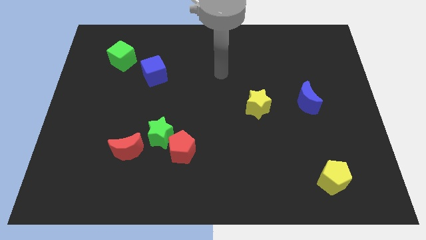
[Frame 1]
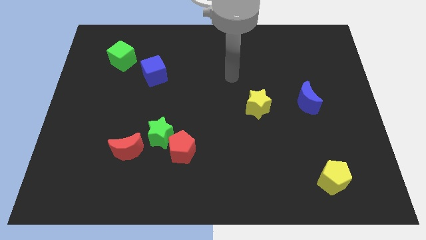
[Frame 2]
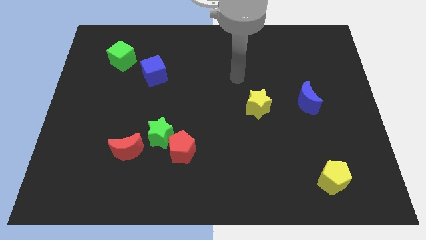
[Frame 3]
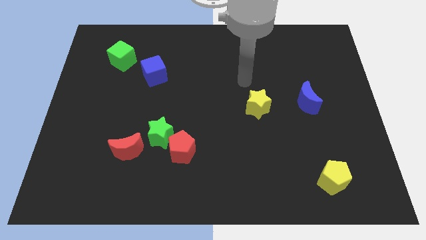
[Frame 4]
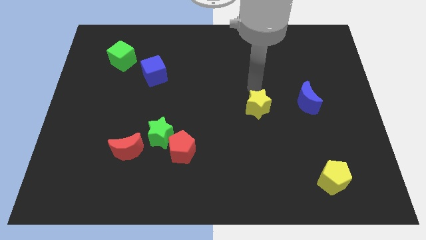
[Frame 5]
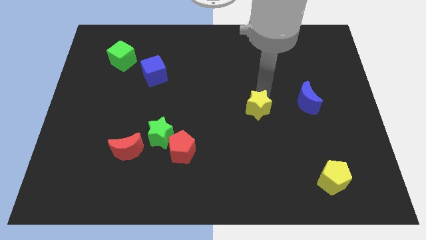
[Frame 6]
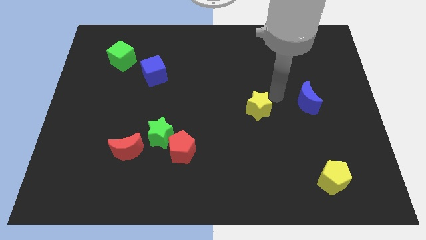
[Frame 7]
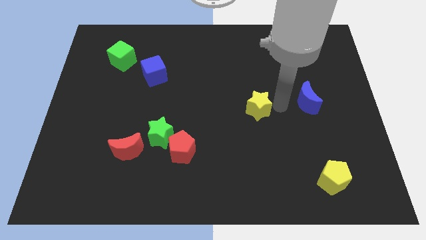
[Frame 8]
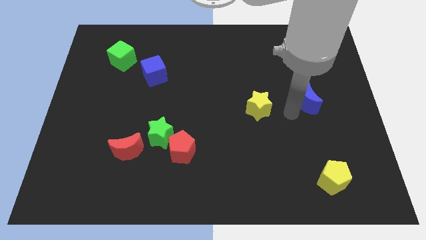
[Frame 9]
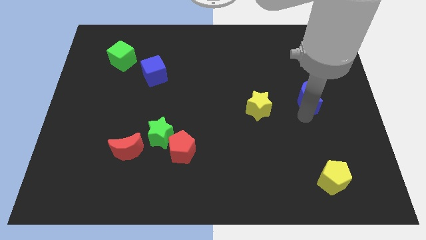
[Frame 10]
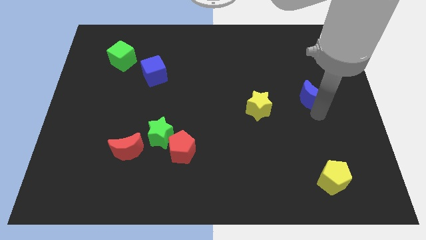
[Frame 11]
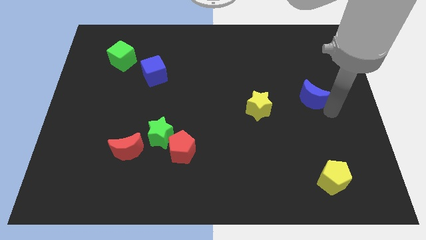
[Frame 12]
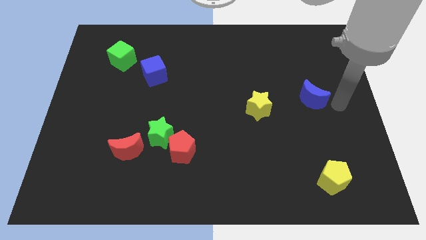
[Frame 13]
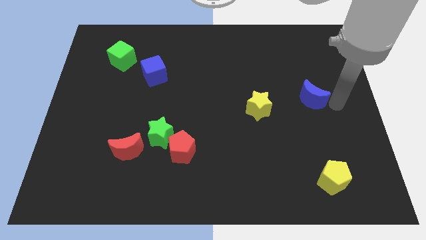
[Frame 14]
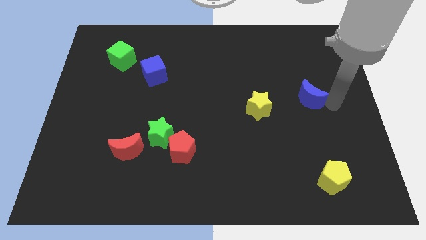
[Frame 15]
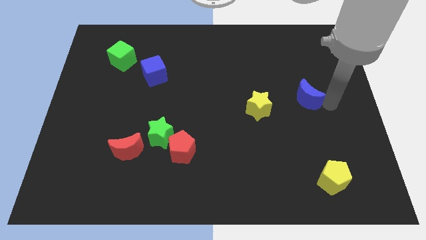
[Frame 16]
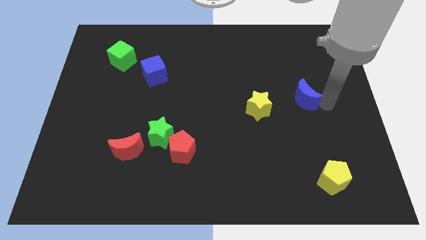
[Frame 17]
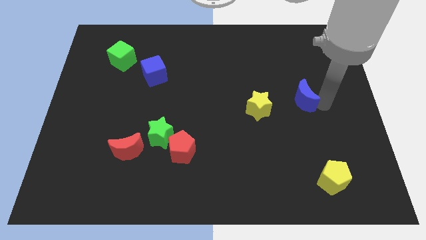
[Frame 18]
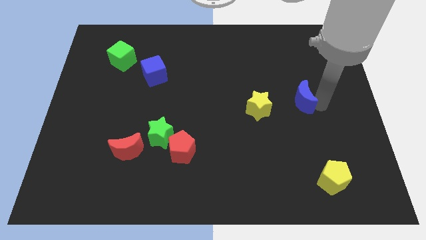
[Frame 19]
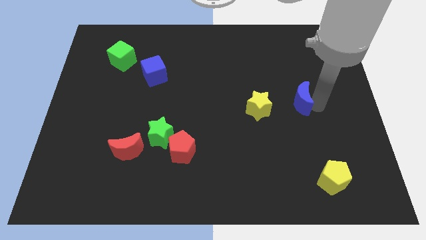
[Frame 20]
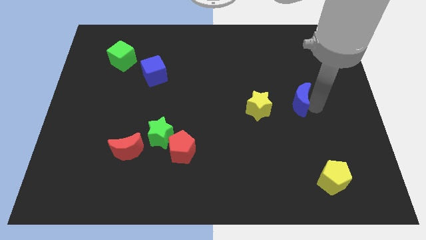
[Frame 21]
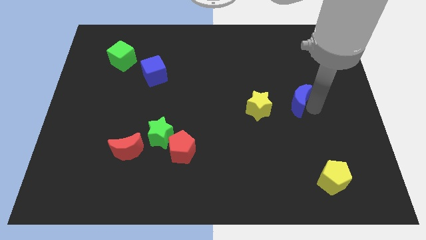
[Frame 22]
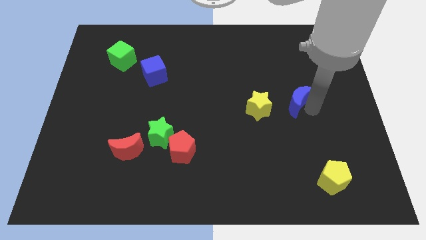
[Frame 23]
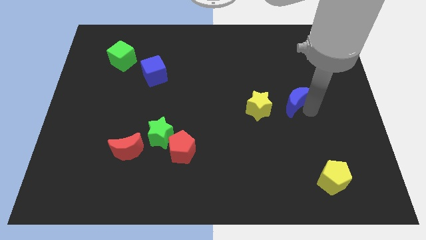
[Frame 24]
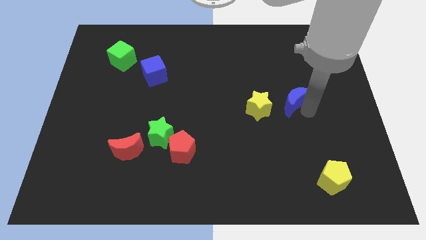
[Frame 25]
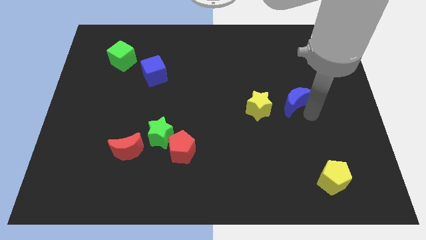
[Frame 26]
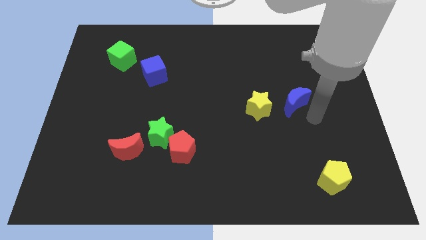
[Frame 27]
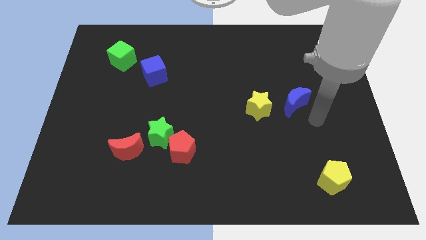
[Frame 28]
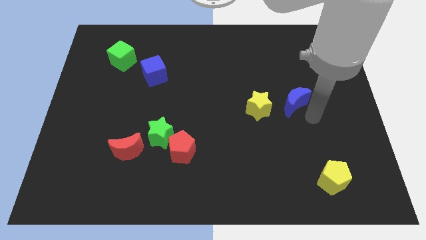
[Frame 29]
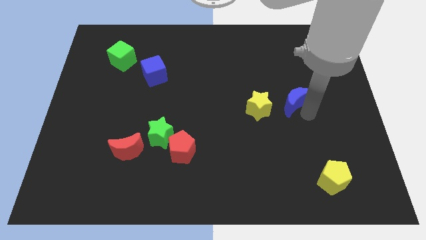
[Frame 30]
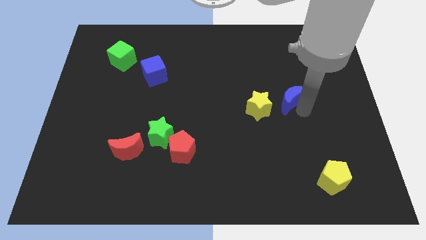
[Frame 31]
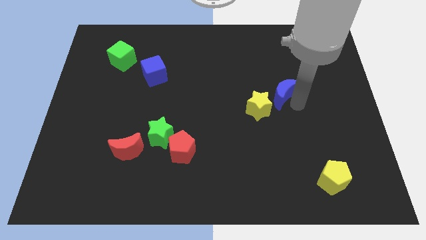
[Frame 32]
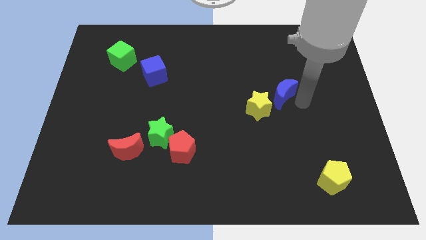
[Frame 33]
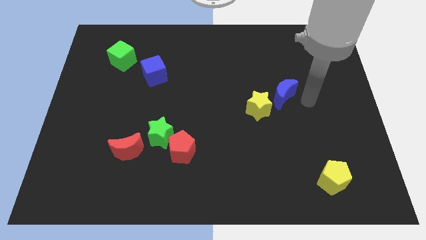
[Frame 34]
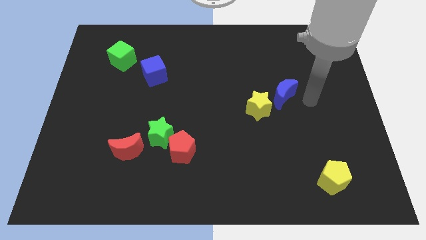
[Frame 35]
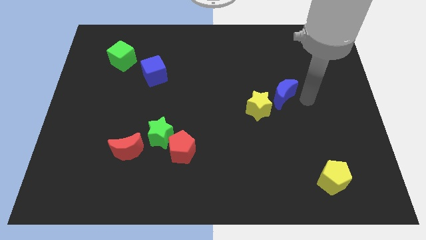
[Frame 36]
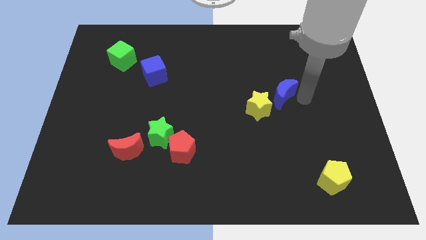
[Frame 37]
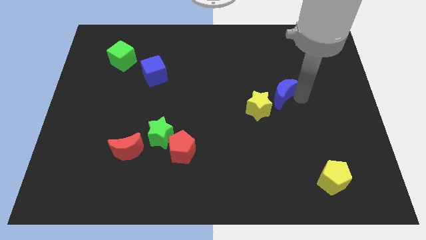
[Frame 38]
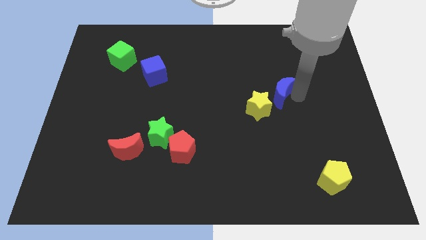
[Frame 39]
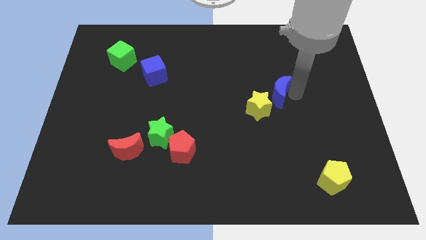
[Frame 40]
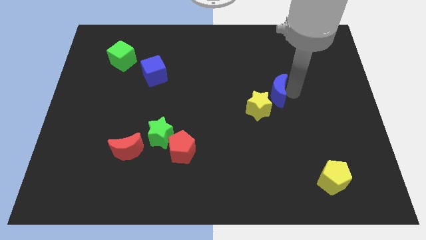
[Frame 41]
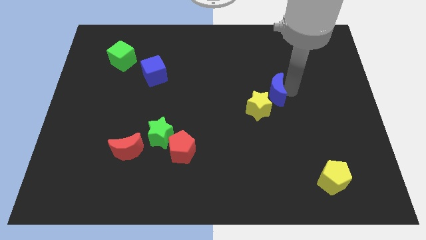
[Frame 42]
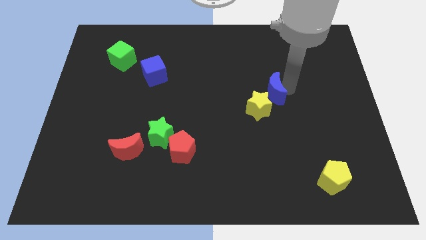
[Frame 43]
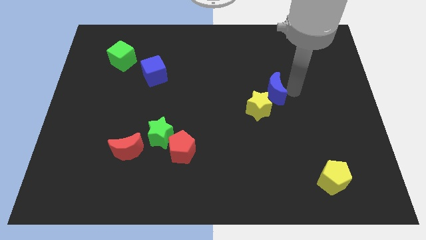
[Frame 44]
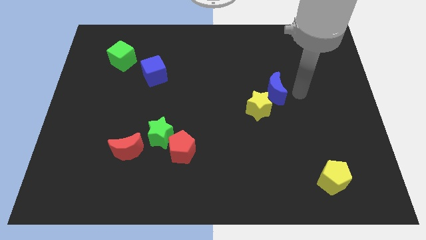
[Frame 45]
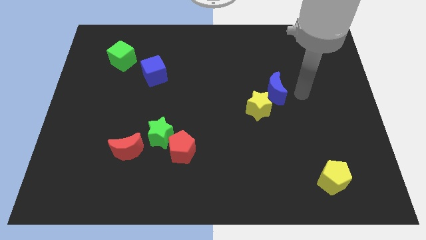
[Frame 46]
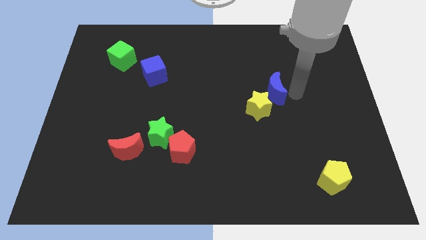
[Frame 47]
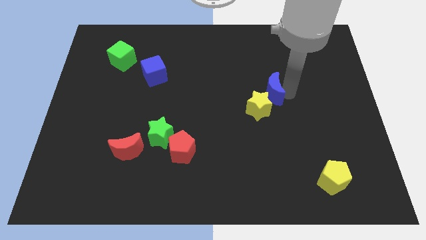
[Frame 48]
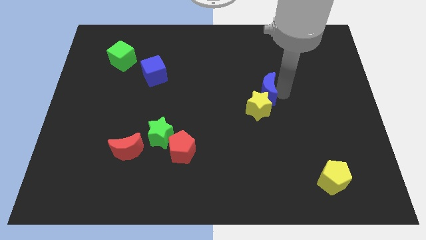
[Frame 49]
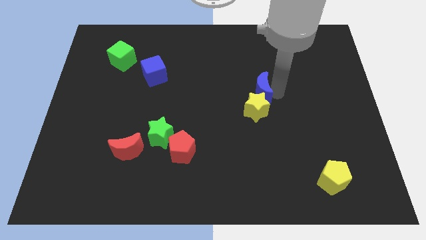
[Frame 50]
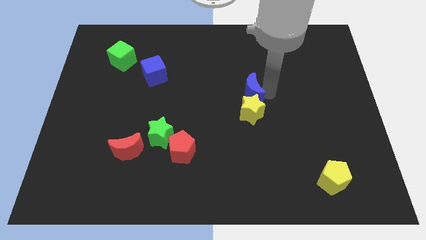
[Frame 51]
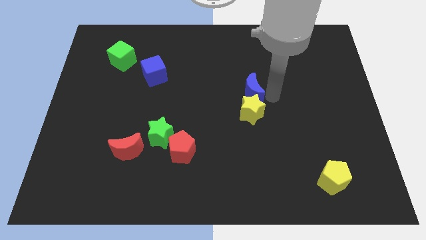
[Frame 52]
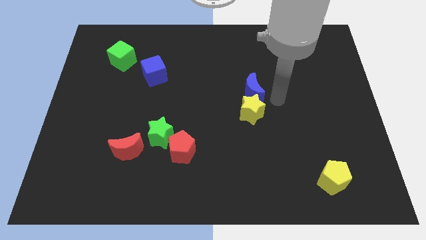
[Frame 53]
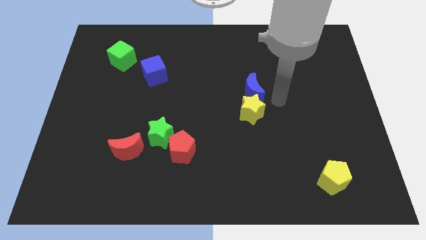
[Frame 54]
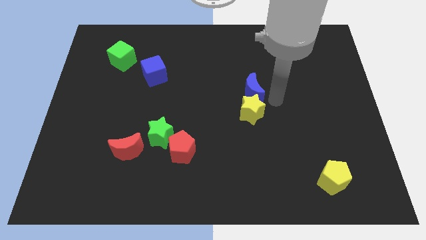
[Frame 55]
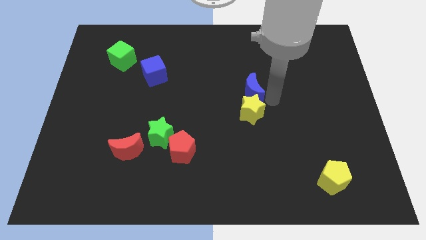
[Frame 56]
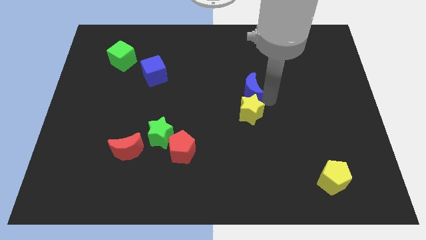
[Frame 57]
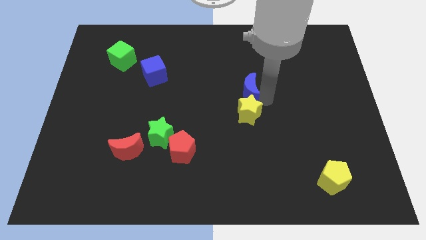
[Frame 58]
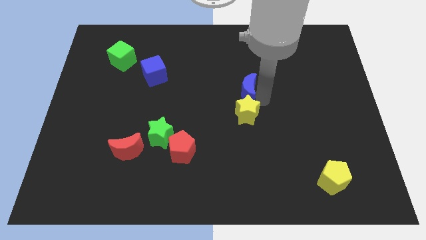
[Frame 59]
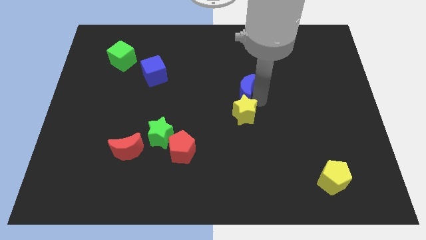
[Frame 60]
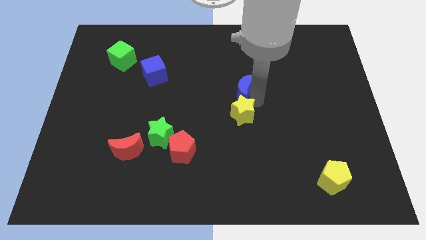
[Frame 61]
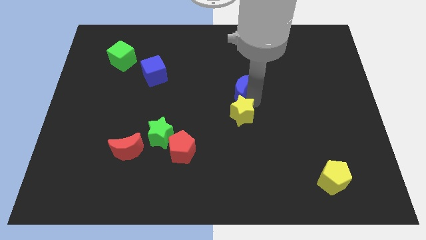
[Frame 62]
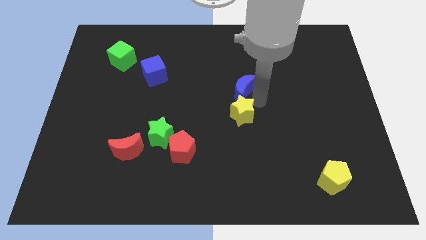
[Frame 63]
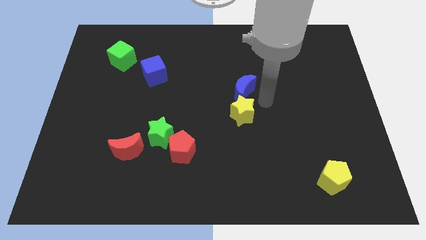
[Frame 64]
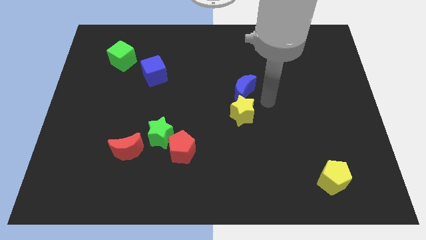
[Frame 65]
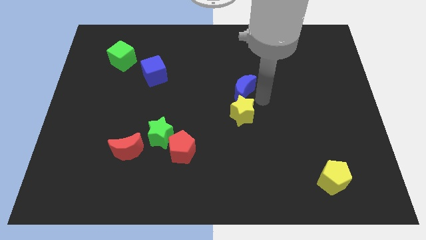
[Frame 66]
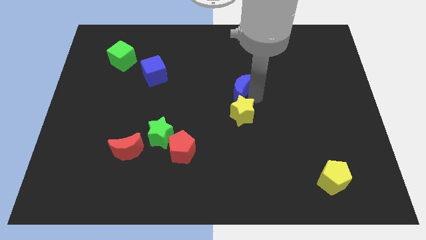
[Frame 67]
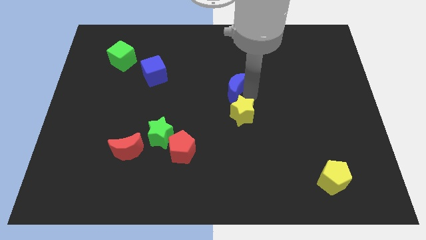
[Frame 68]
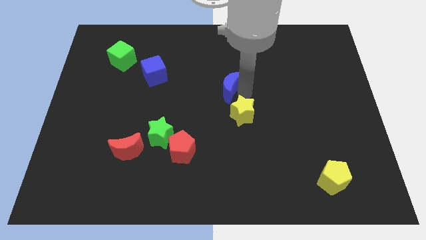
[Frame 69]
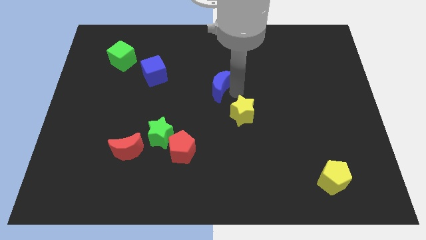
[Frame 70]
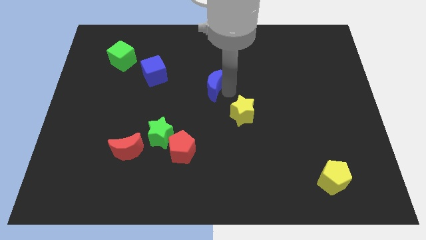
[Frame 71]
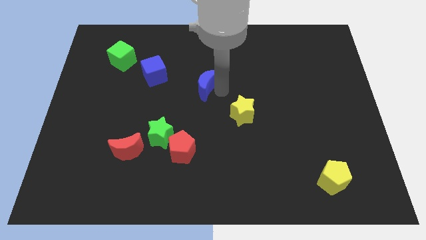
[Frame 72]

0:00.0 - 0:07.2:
move the blue moon to the right of the blue cube
